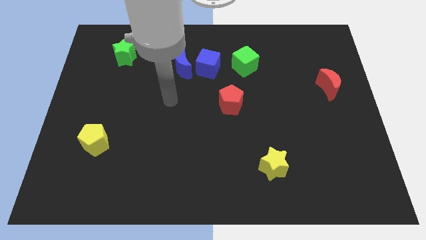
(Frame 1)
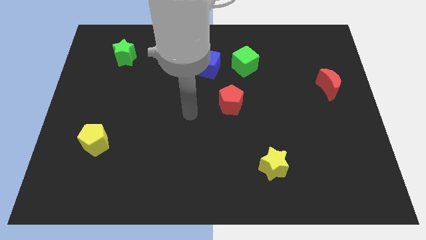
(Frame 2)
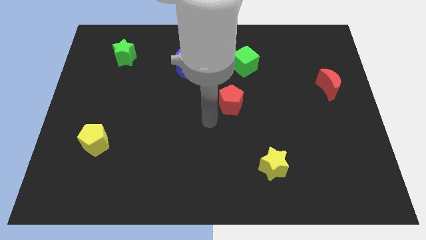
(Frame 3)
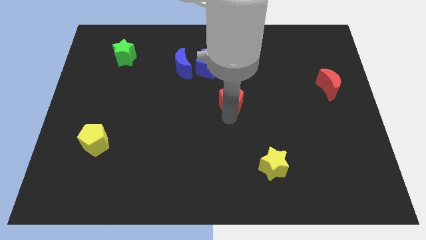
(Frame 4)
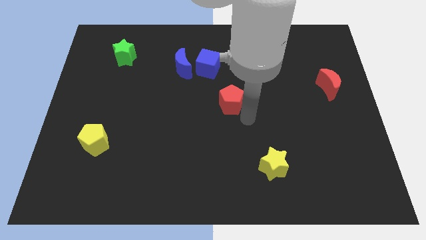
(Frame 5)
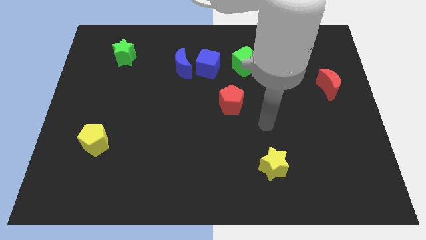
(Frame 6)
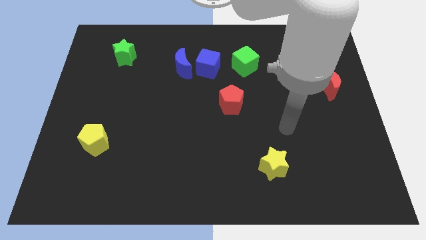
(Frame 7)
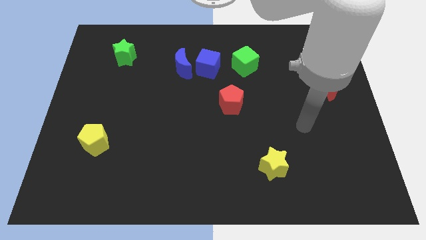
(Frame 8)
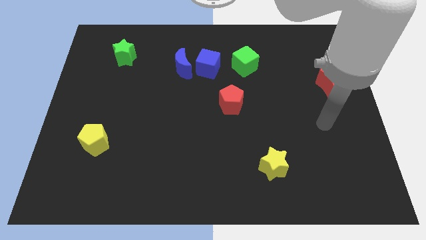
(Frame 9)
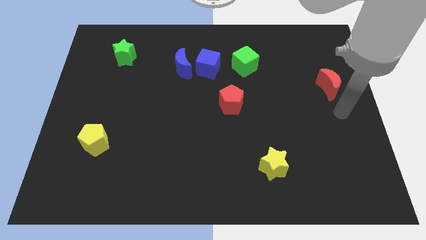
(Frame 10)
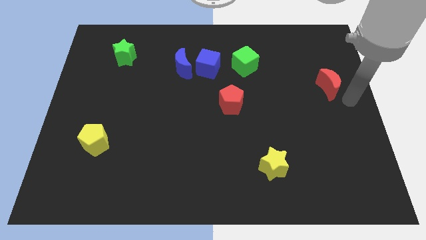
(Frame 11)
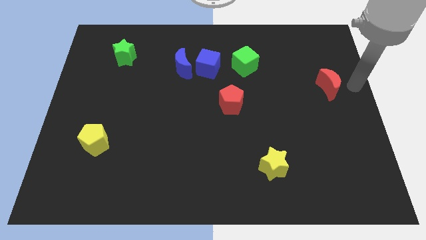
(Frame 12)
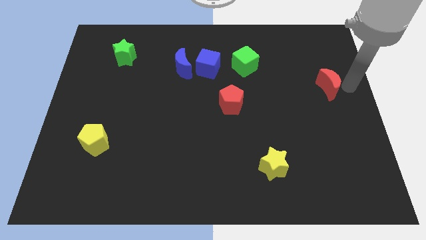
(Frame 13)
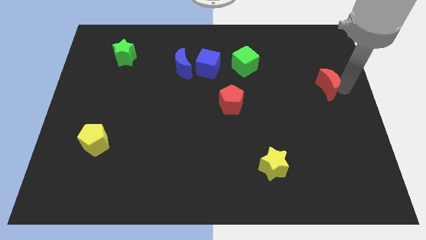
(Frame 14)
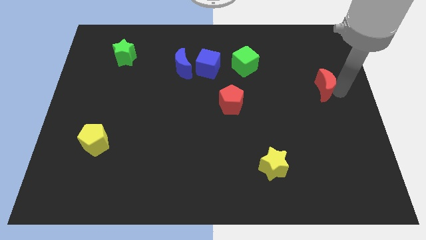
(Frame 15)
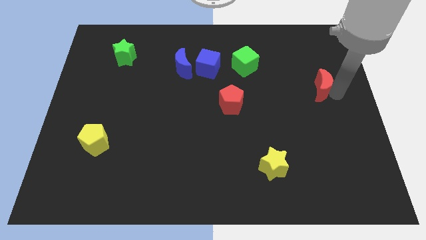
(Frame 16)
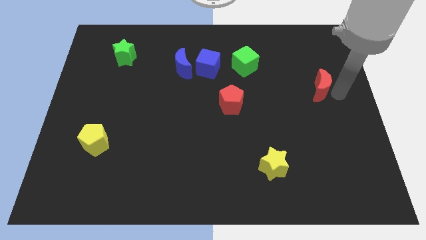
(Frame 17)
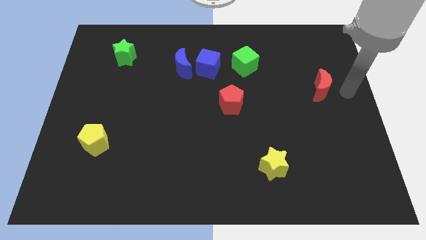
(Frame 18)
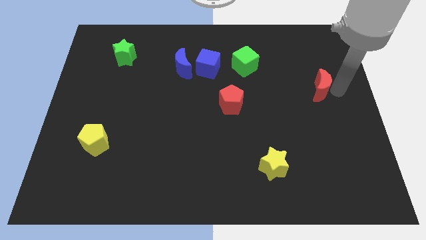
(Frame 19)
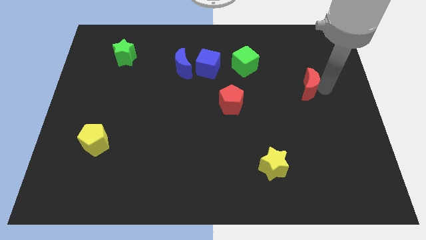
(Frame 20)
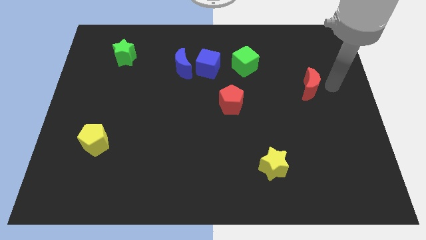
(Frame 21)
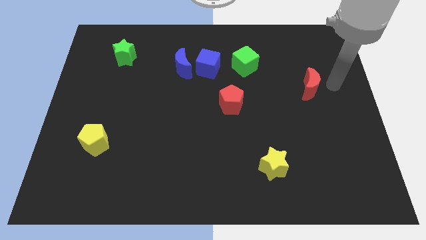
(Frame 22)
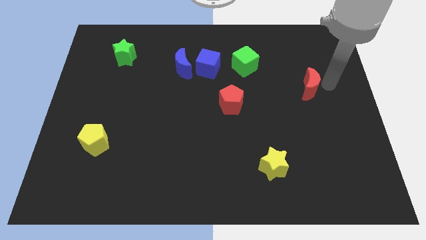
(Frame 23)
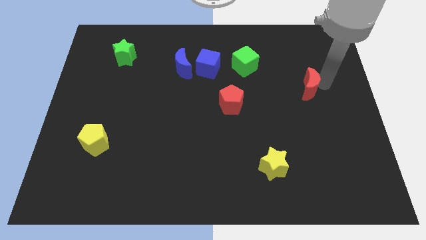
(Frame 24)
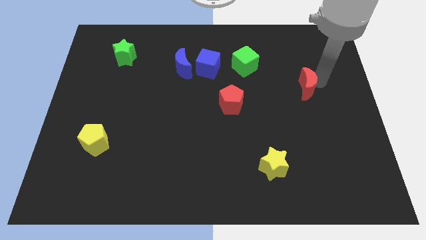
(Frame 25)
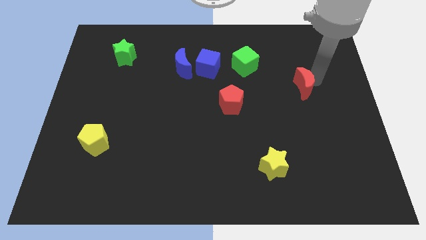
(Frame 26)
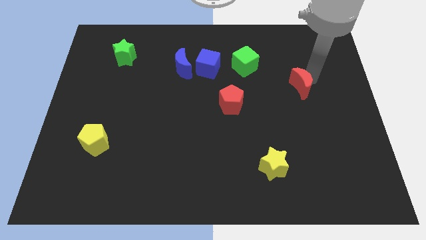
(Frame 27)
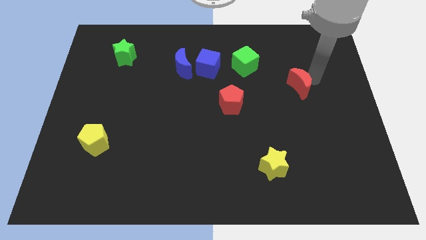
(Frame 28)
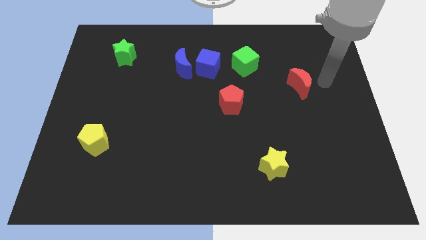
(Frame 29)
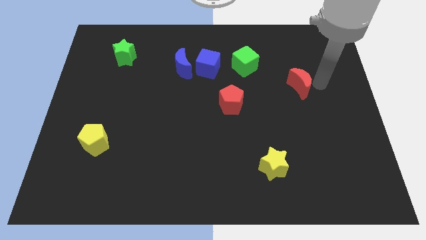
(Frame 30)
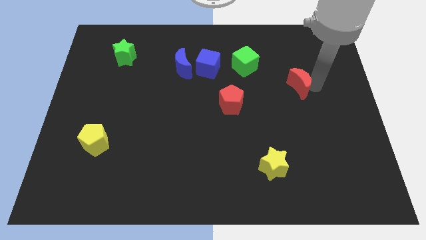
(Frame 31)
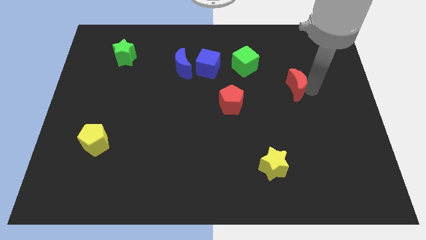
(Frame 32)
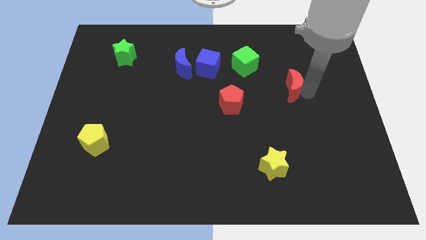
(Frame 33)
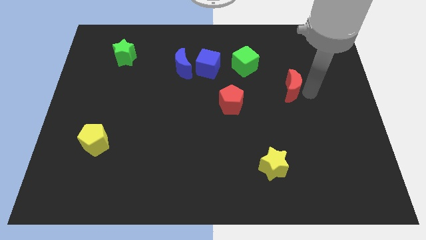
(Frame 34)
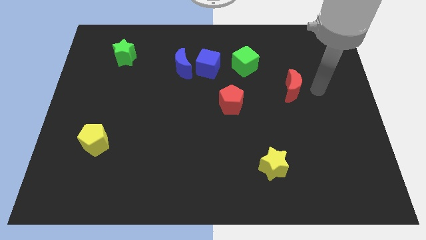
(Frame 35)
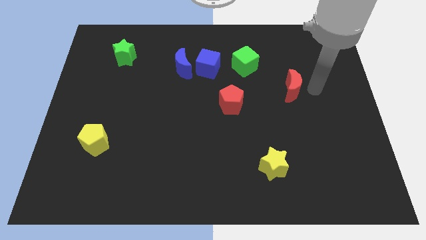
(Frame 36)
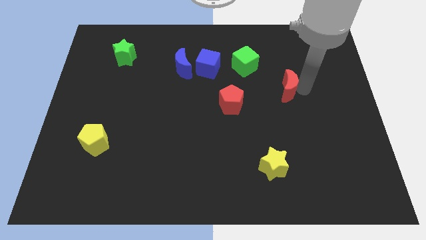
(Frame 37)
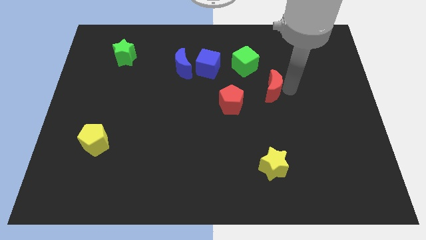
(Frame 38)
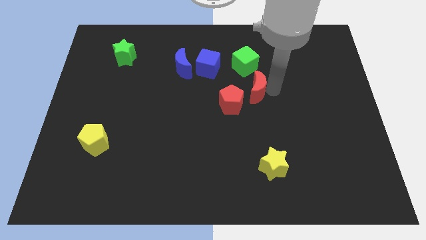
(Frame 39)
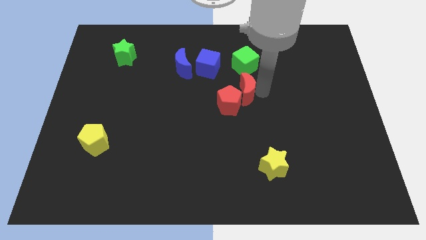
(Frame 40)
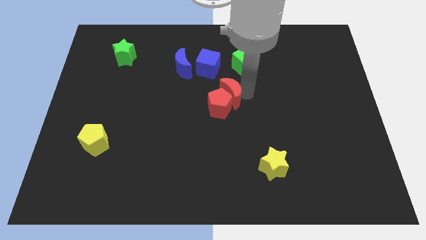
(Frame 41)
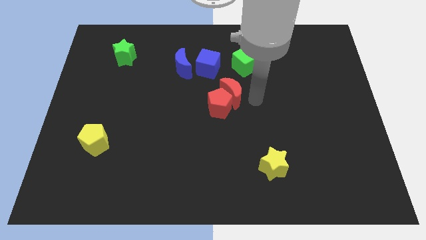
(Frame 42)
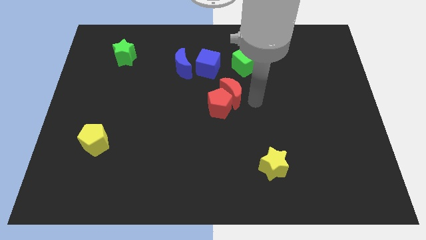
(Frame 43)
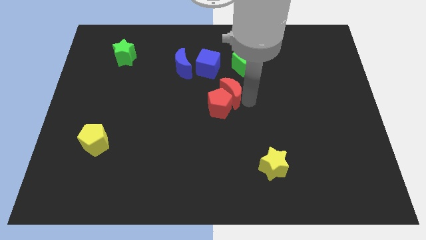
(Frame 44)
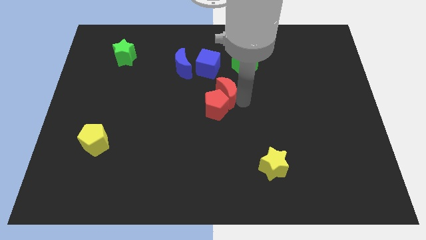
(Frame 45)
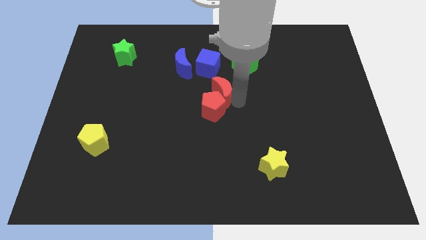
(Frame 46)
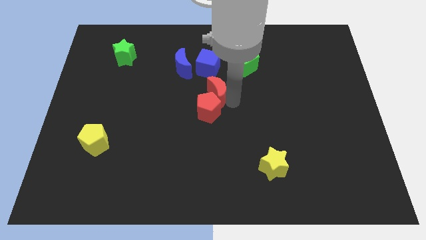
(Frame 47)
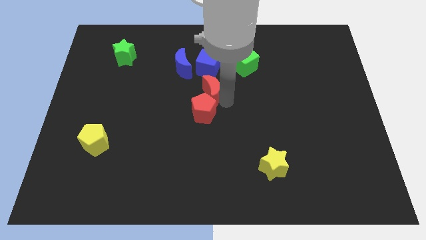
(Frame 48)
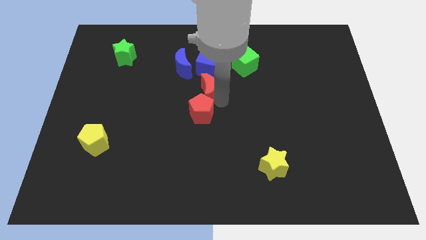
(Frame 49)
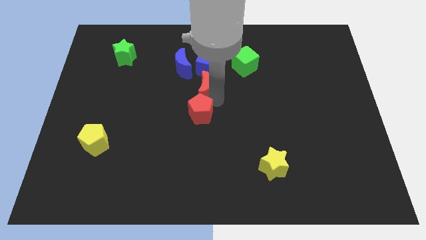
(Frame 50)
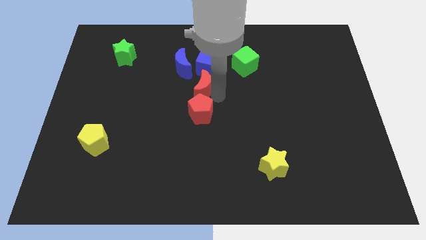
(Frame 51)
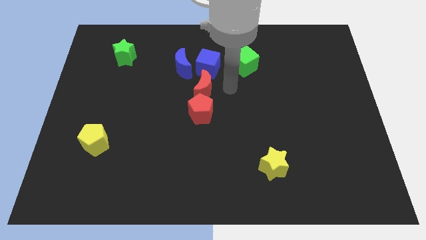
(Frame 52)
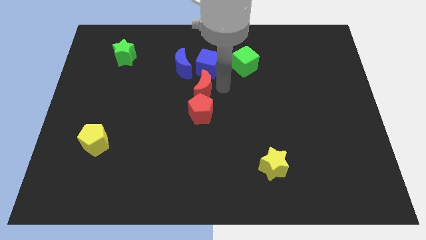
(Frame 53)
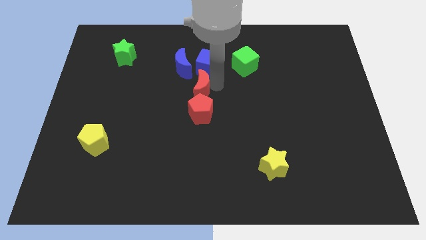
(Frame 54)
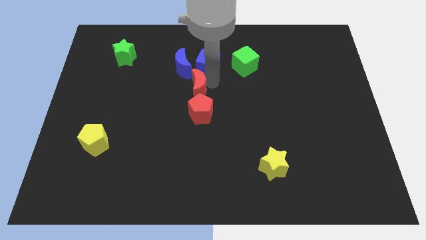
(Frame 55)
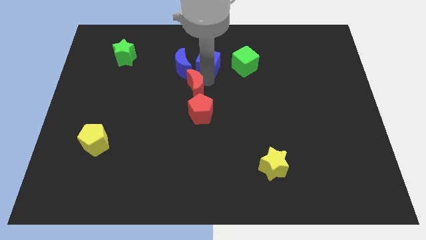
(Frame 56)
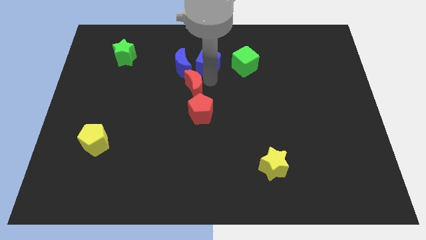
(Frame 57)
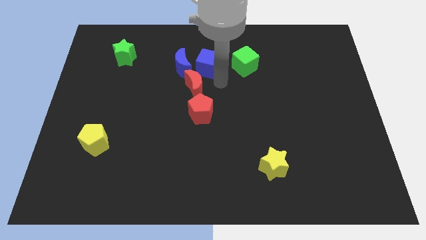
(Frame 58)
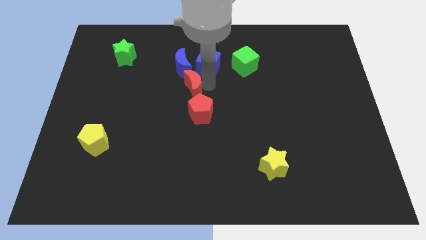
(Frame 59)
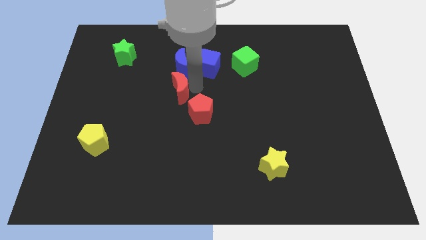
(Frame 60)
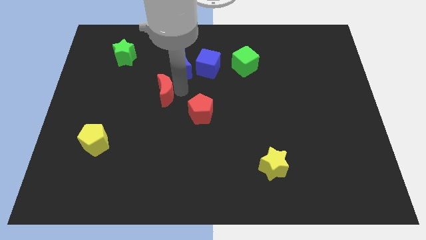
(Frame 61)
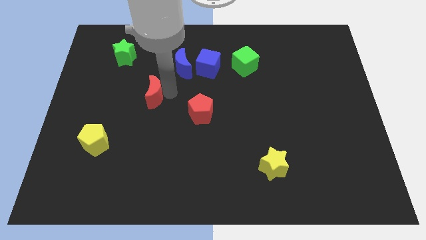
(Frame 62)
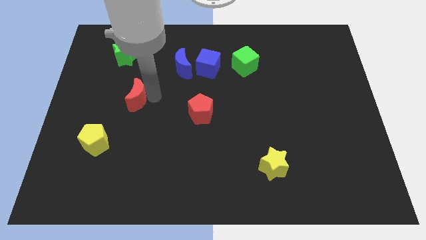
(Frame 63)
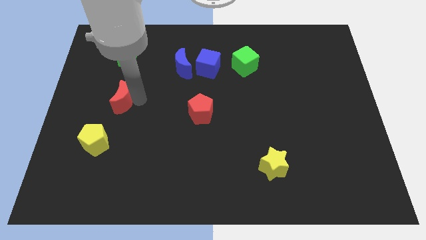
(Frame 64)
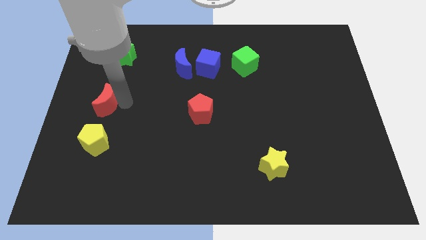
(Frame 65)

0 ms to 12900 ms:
move the red moon to the center left

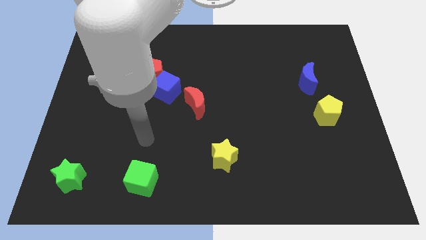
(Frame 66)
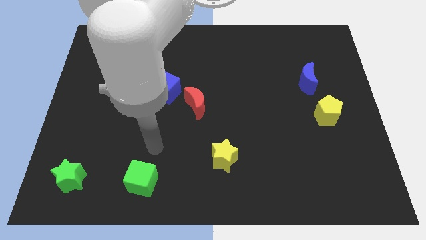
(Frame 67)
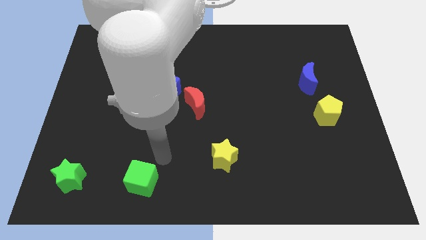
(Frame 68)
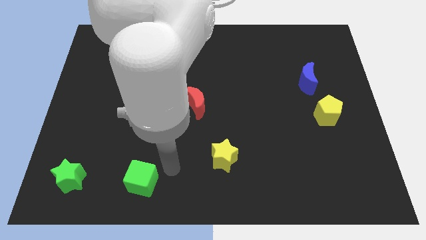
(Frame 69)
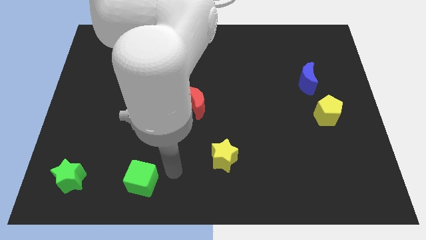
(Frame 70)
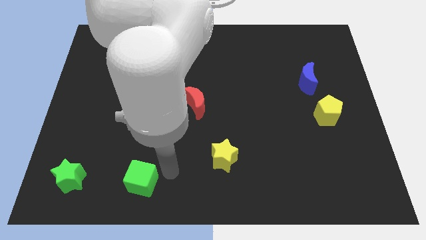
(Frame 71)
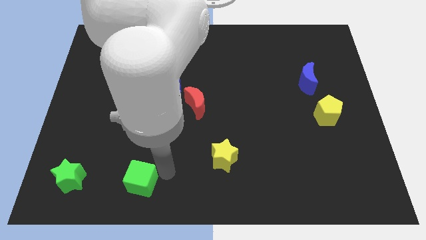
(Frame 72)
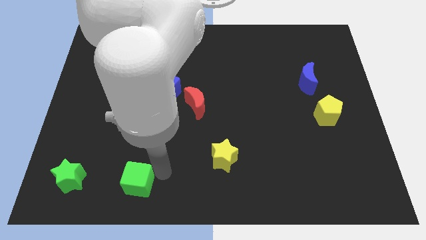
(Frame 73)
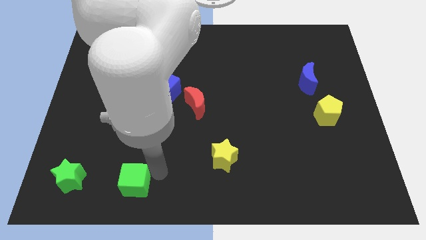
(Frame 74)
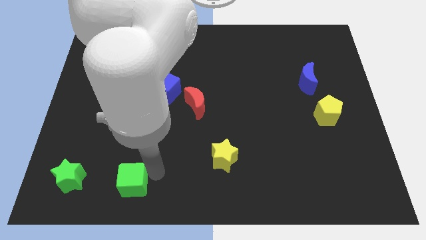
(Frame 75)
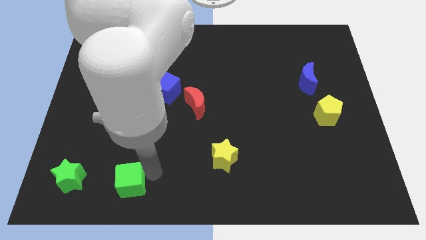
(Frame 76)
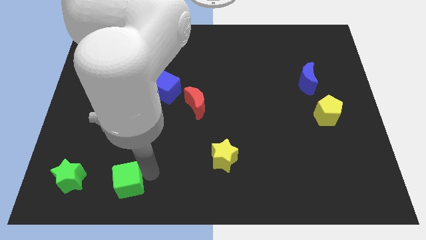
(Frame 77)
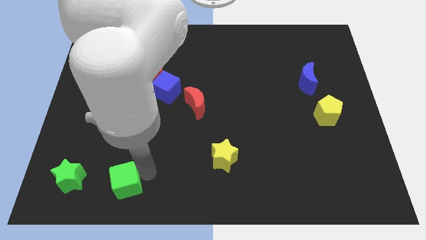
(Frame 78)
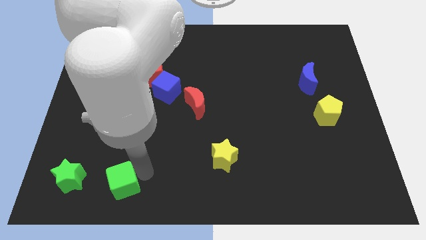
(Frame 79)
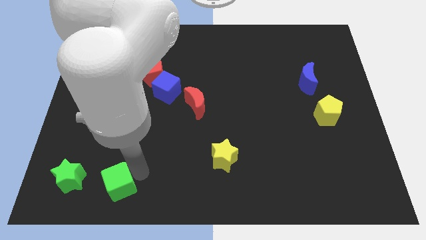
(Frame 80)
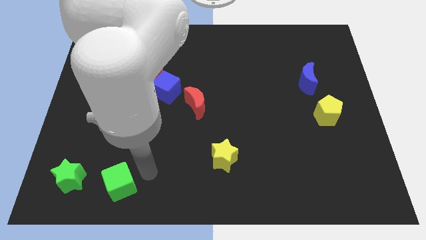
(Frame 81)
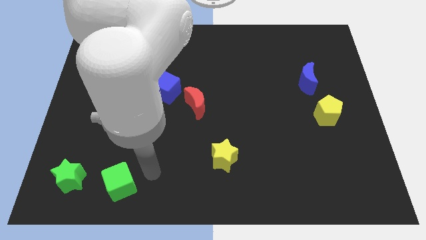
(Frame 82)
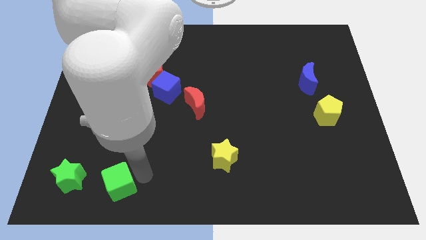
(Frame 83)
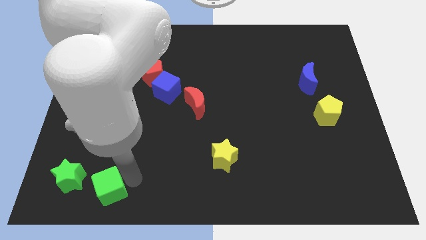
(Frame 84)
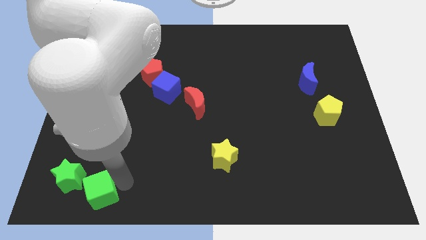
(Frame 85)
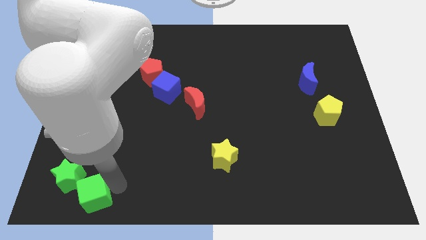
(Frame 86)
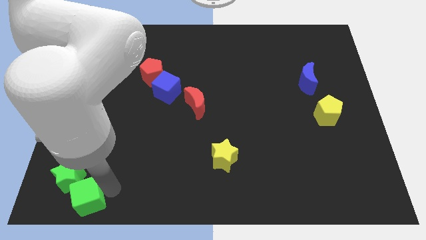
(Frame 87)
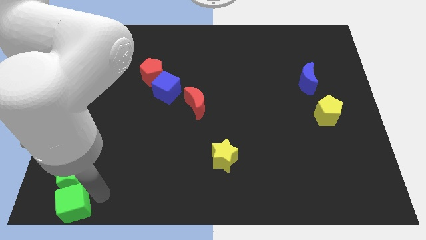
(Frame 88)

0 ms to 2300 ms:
push the green cube to the bottom left
